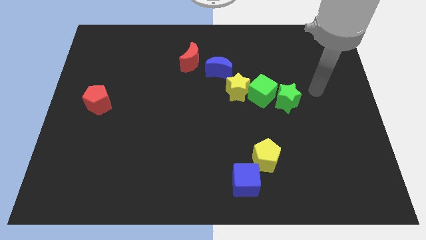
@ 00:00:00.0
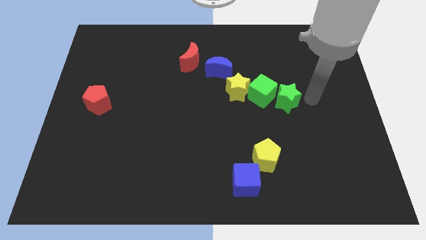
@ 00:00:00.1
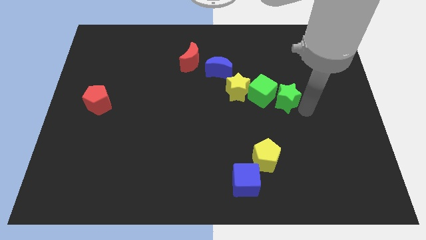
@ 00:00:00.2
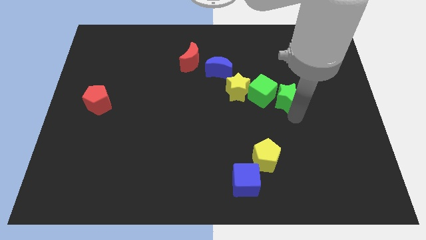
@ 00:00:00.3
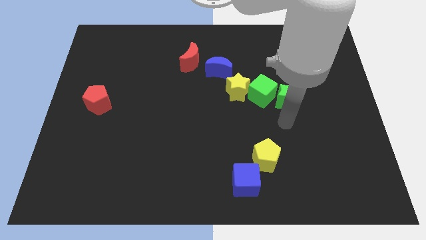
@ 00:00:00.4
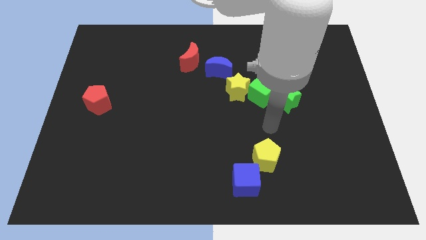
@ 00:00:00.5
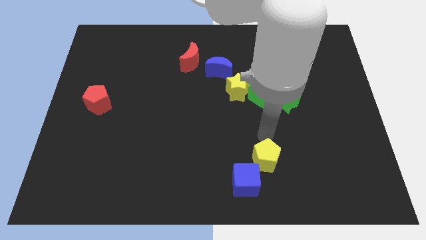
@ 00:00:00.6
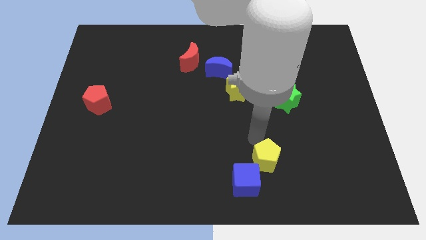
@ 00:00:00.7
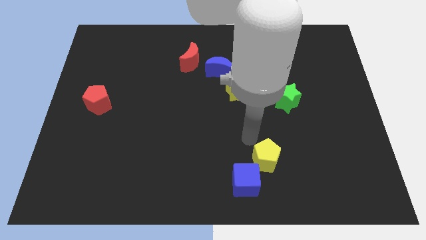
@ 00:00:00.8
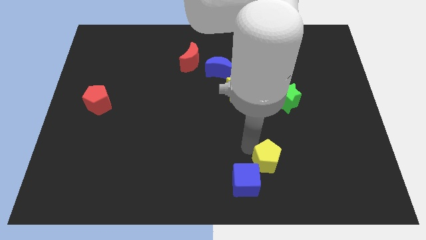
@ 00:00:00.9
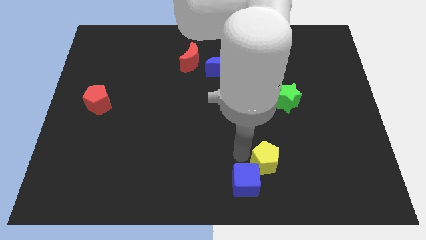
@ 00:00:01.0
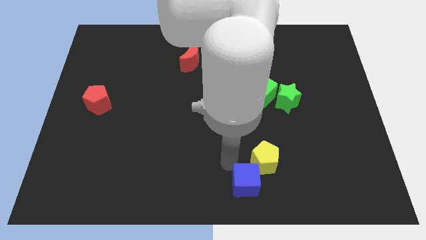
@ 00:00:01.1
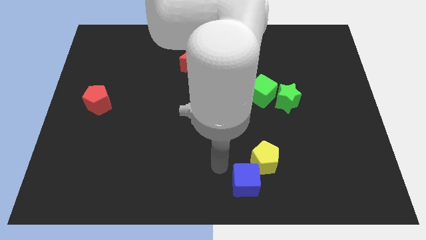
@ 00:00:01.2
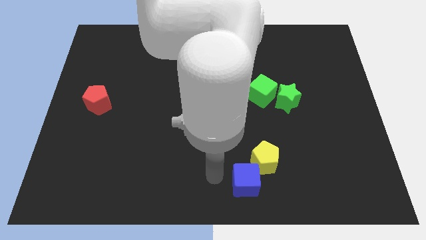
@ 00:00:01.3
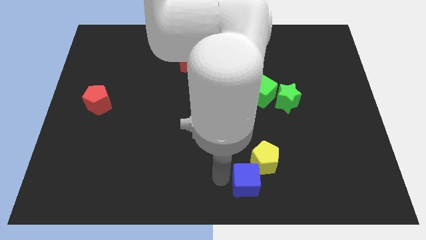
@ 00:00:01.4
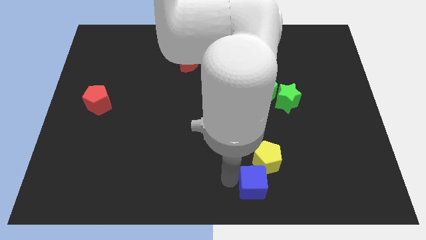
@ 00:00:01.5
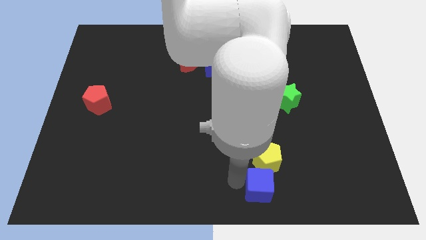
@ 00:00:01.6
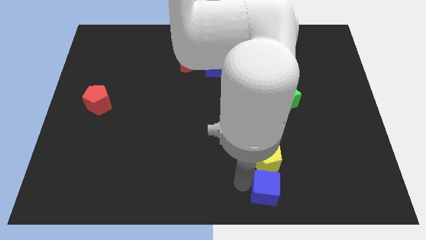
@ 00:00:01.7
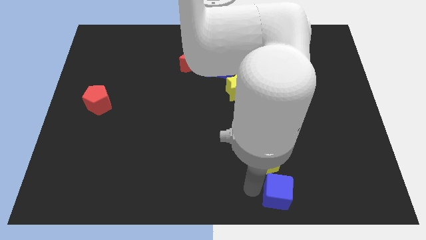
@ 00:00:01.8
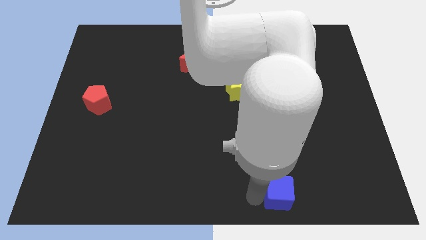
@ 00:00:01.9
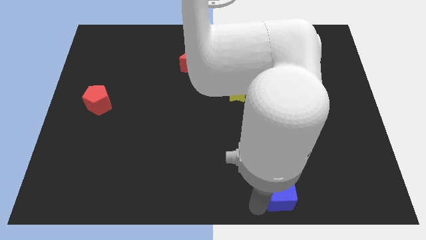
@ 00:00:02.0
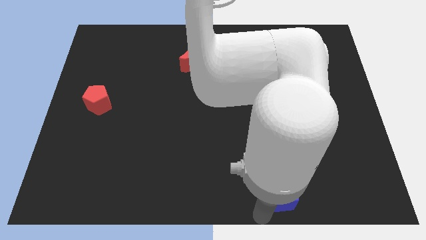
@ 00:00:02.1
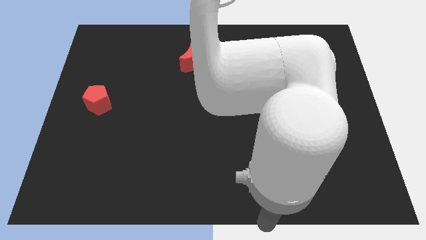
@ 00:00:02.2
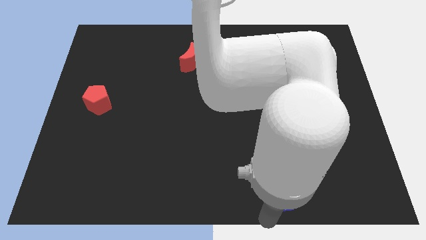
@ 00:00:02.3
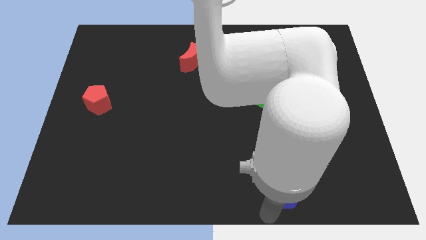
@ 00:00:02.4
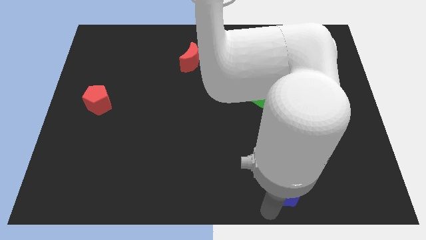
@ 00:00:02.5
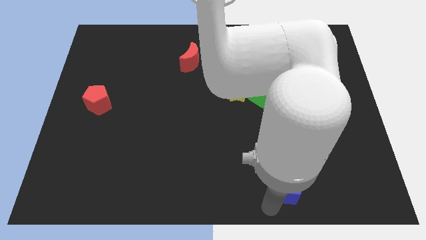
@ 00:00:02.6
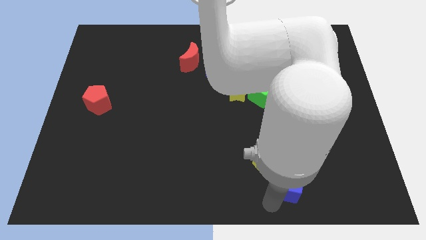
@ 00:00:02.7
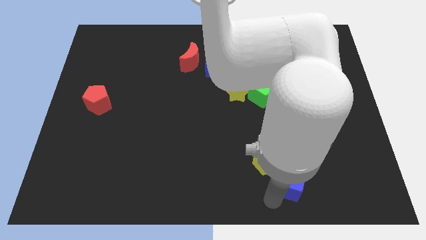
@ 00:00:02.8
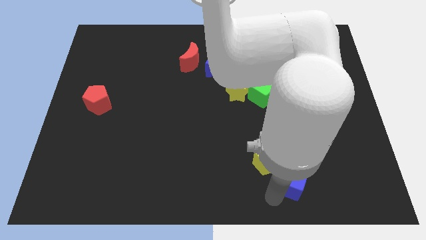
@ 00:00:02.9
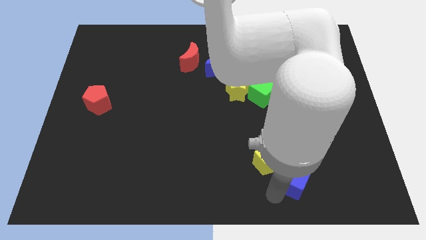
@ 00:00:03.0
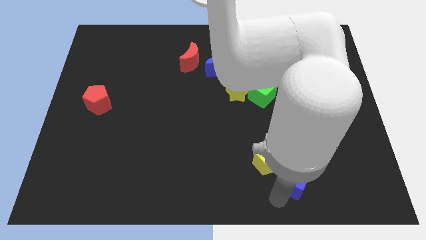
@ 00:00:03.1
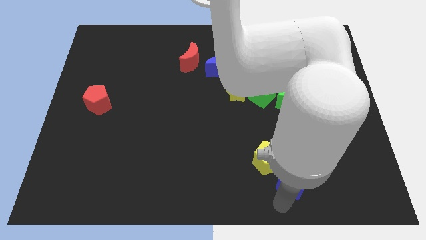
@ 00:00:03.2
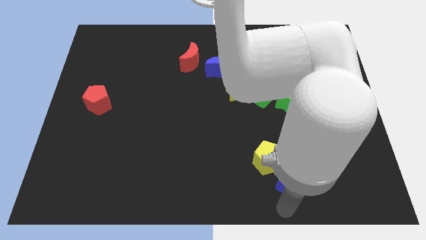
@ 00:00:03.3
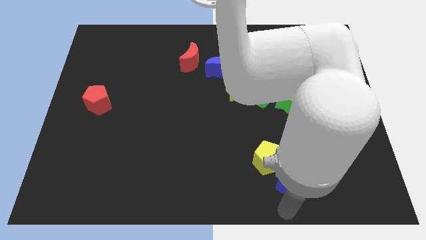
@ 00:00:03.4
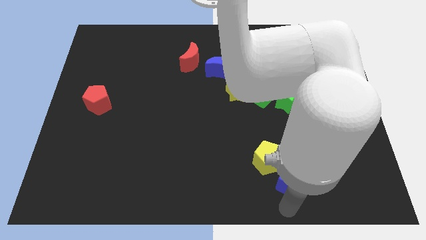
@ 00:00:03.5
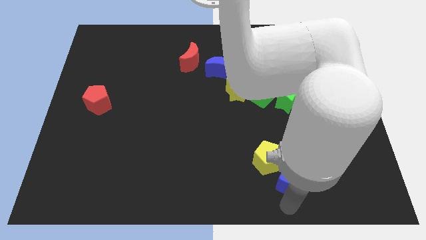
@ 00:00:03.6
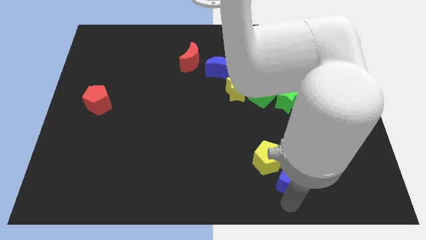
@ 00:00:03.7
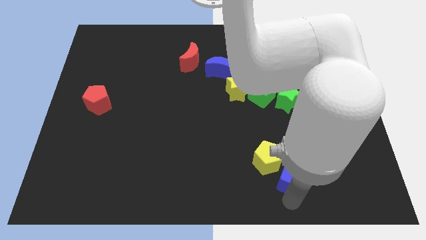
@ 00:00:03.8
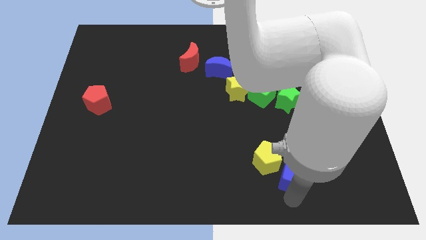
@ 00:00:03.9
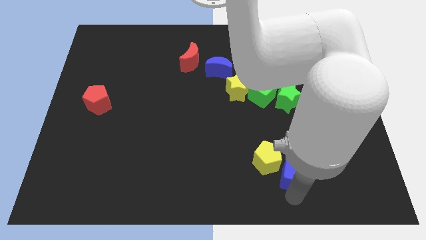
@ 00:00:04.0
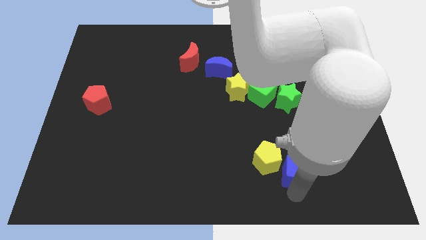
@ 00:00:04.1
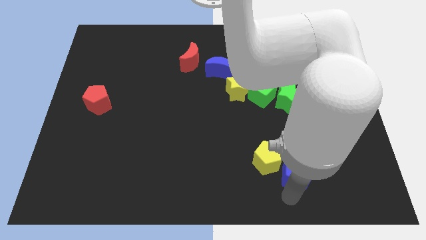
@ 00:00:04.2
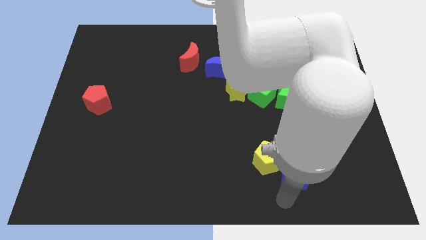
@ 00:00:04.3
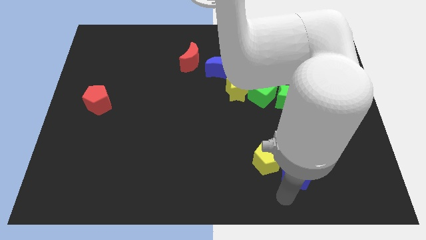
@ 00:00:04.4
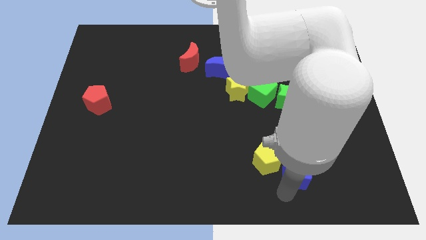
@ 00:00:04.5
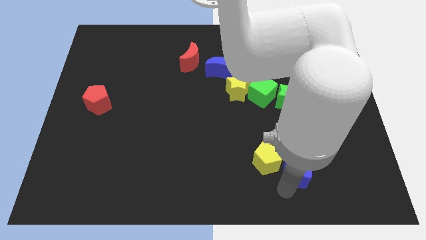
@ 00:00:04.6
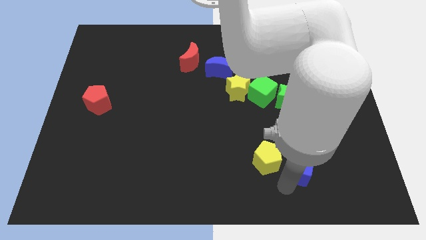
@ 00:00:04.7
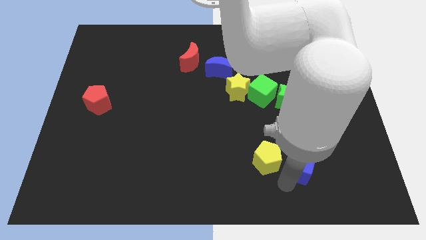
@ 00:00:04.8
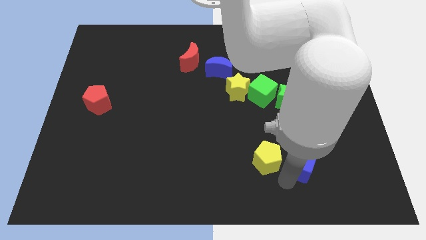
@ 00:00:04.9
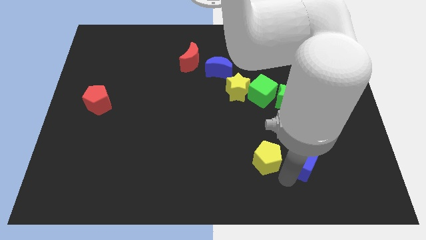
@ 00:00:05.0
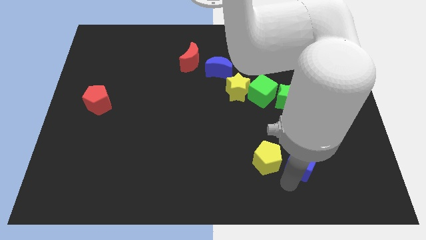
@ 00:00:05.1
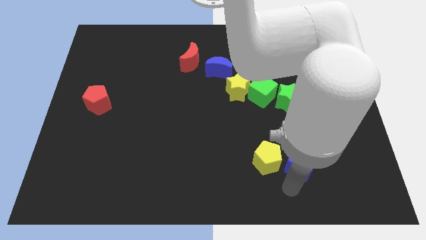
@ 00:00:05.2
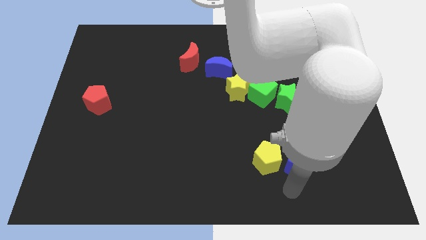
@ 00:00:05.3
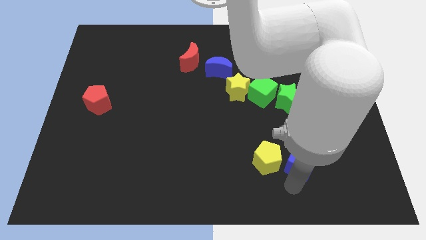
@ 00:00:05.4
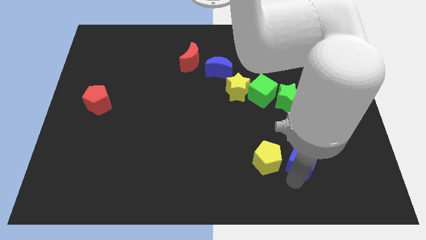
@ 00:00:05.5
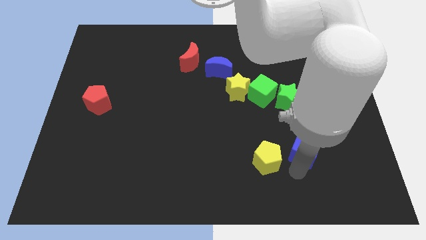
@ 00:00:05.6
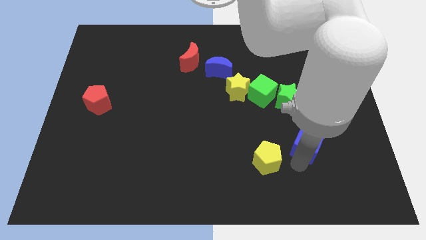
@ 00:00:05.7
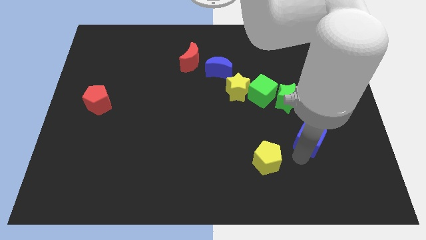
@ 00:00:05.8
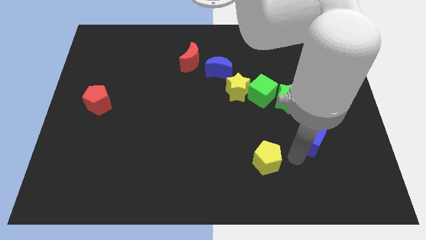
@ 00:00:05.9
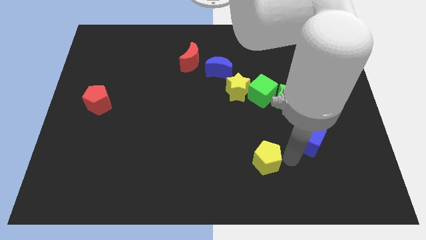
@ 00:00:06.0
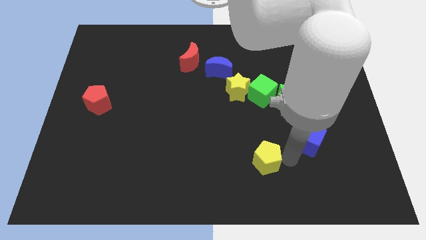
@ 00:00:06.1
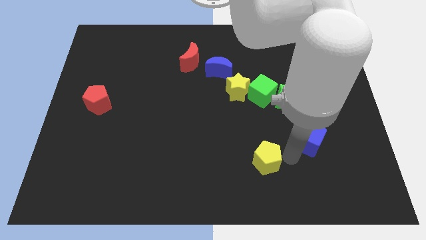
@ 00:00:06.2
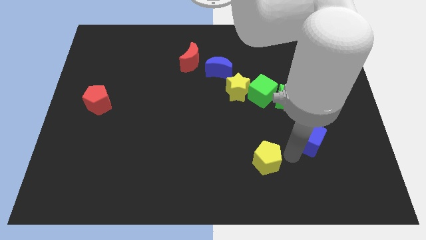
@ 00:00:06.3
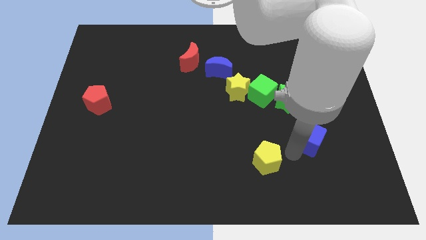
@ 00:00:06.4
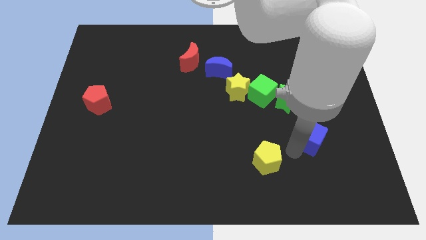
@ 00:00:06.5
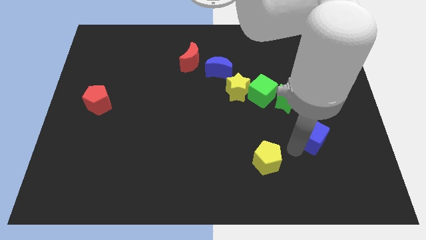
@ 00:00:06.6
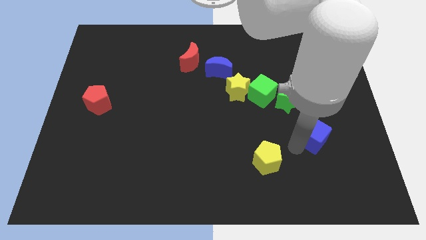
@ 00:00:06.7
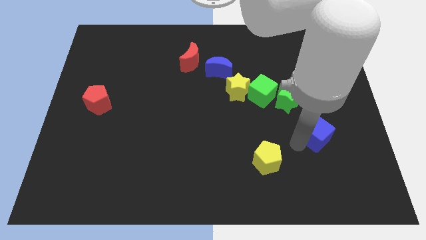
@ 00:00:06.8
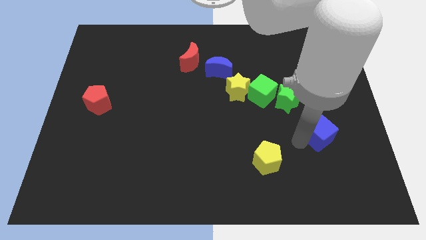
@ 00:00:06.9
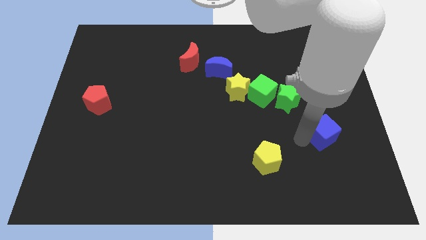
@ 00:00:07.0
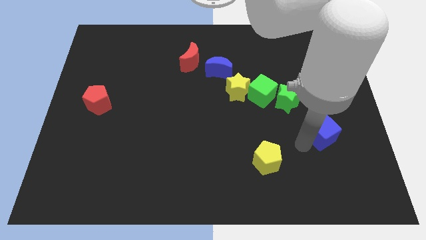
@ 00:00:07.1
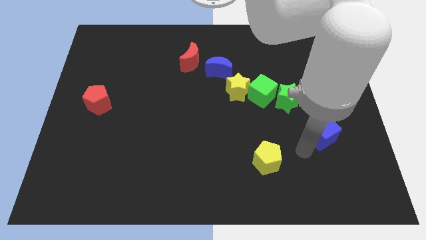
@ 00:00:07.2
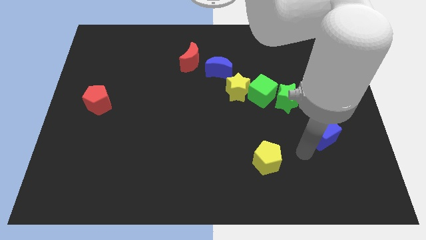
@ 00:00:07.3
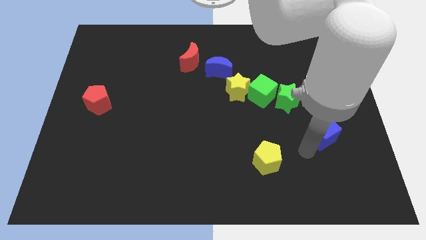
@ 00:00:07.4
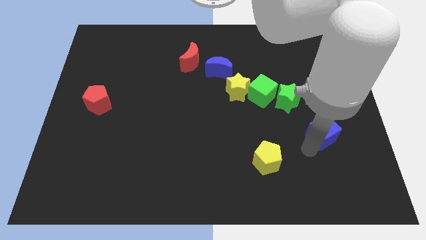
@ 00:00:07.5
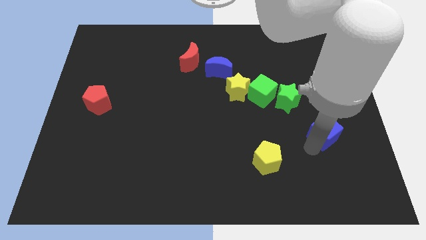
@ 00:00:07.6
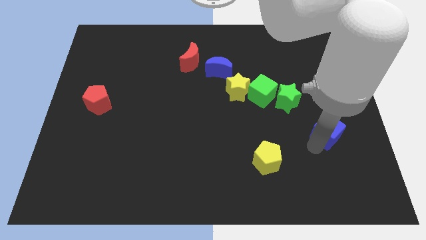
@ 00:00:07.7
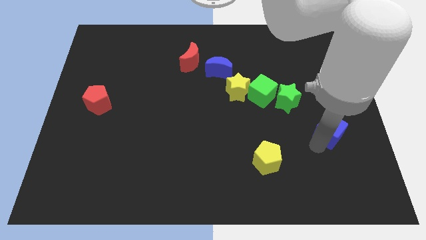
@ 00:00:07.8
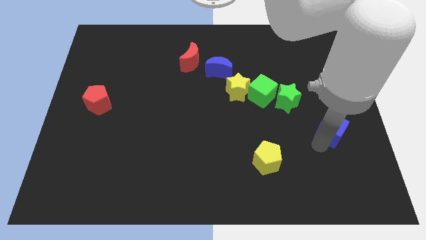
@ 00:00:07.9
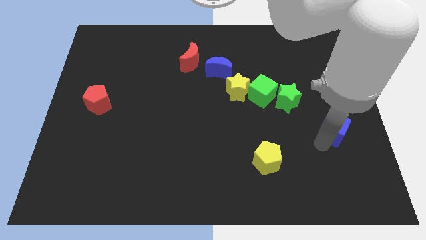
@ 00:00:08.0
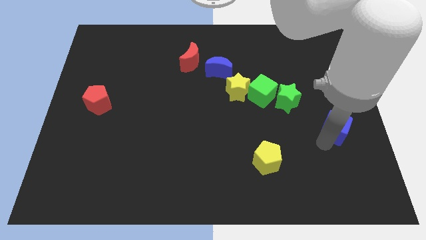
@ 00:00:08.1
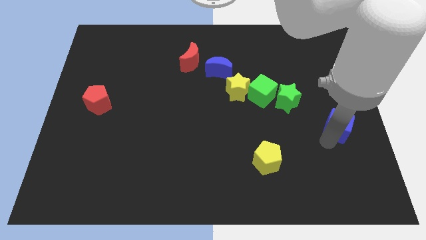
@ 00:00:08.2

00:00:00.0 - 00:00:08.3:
push the blue cube to the right side
